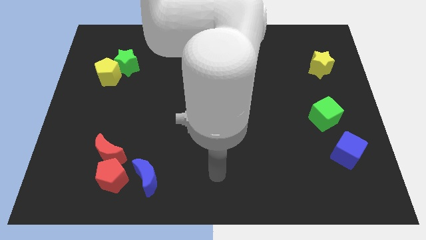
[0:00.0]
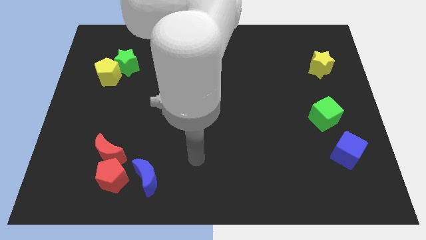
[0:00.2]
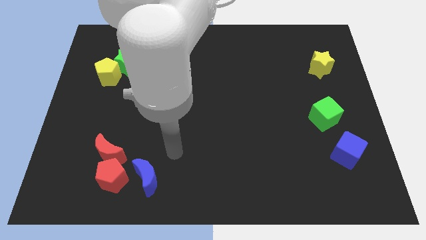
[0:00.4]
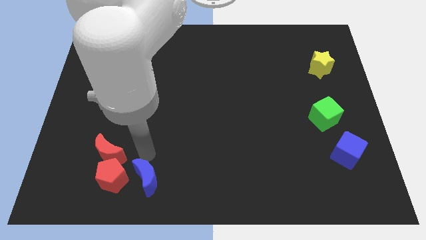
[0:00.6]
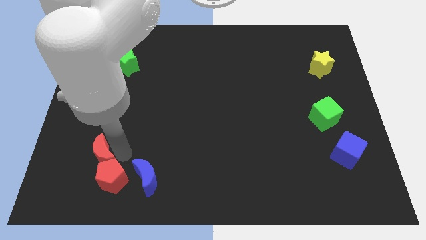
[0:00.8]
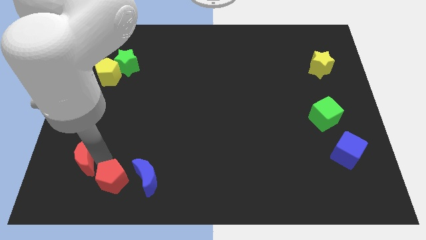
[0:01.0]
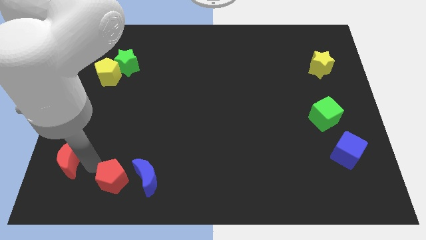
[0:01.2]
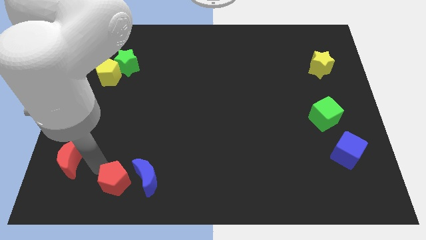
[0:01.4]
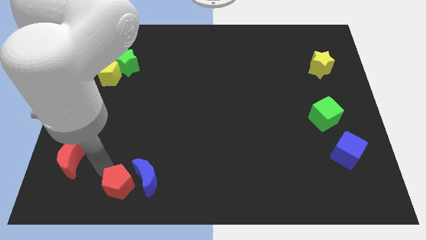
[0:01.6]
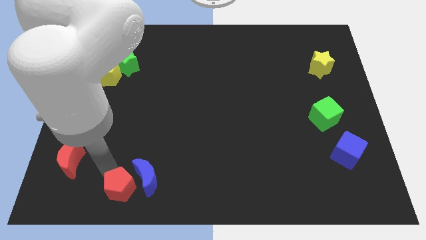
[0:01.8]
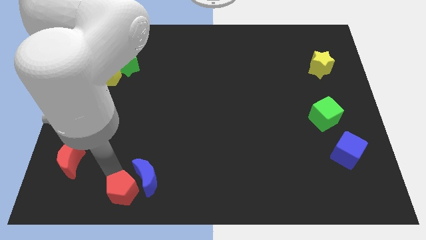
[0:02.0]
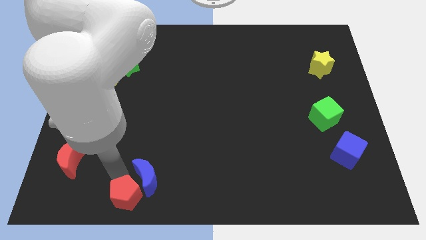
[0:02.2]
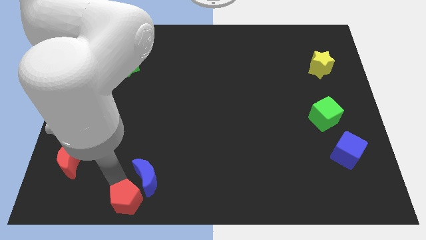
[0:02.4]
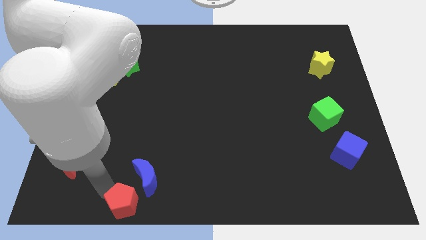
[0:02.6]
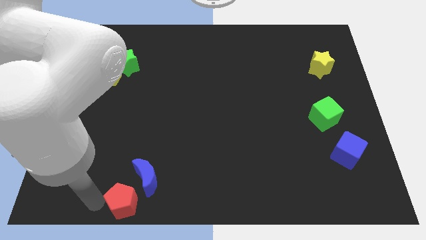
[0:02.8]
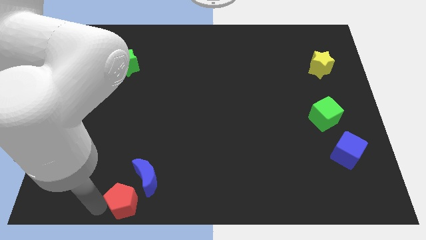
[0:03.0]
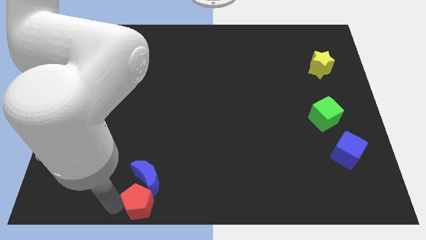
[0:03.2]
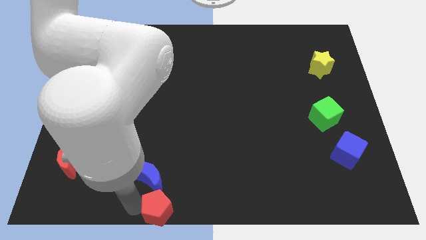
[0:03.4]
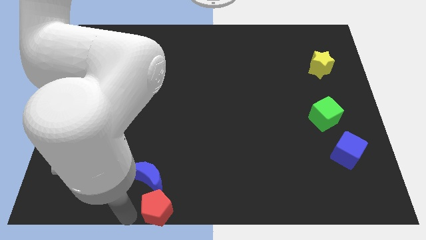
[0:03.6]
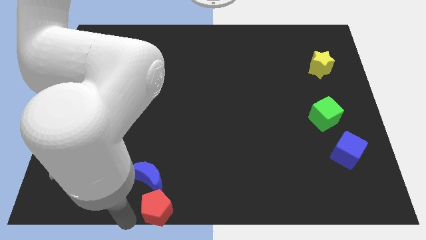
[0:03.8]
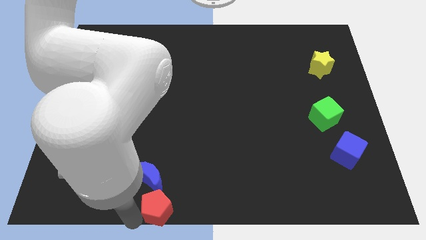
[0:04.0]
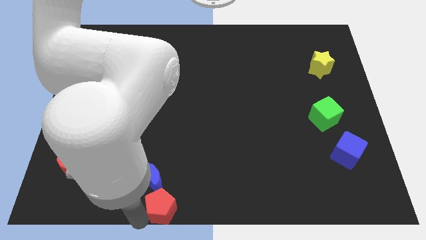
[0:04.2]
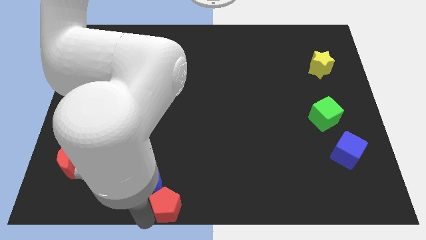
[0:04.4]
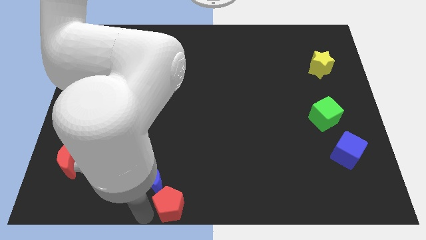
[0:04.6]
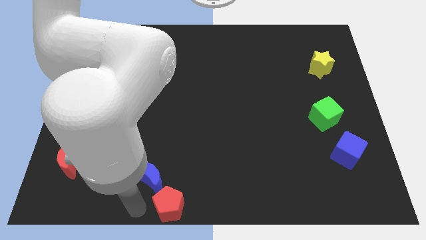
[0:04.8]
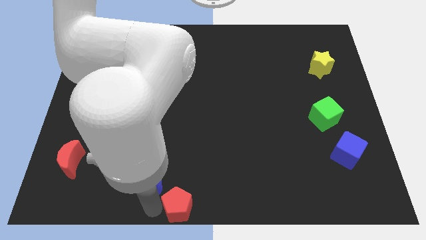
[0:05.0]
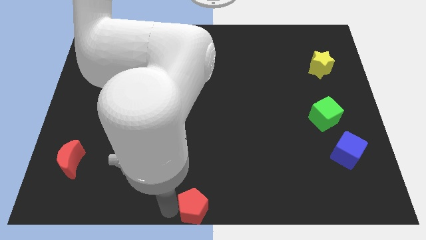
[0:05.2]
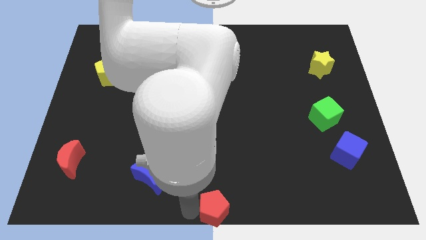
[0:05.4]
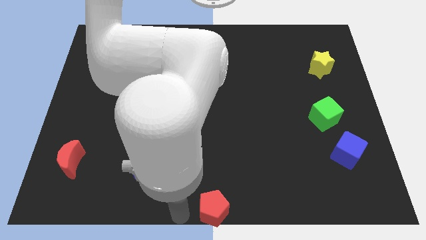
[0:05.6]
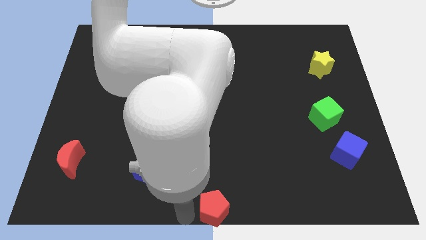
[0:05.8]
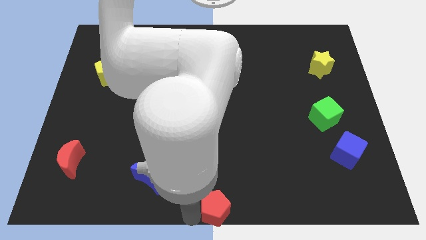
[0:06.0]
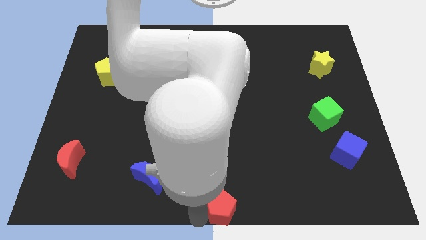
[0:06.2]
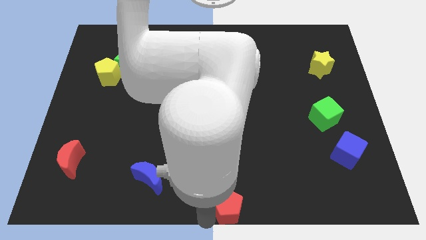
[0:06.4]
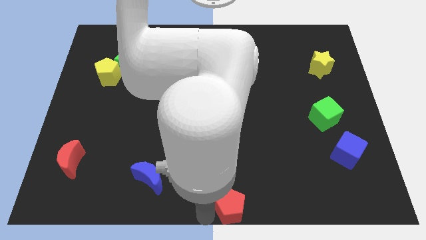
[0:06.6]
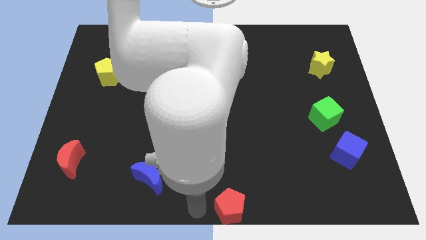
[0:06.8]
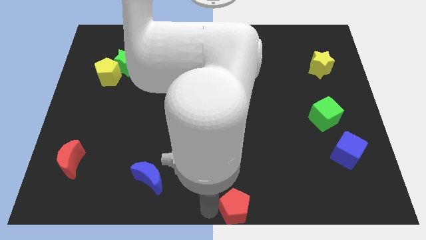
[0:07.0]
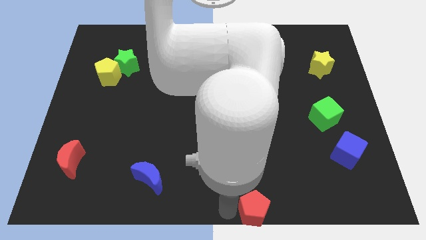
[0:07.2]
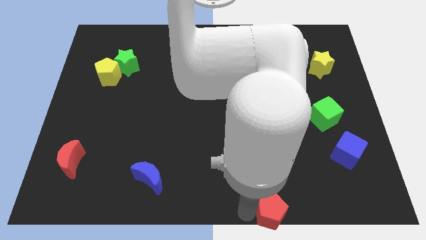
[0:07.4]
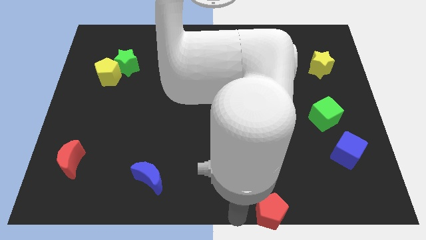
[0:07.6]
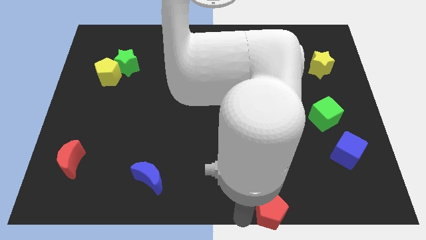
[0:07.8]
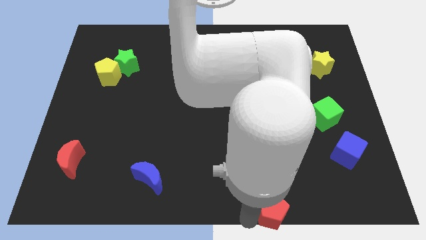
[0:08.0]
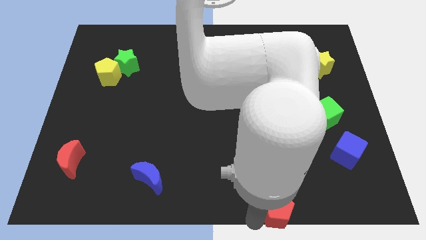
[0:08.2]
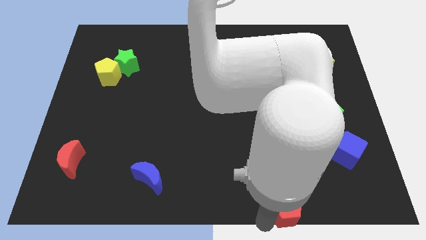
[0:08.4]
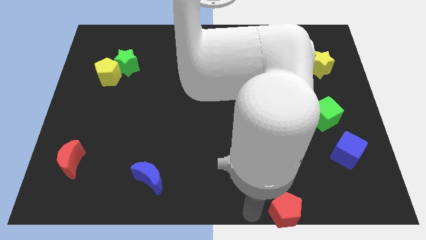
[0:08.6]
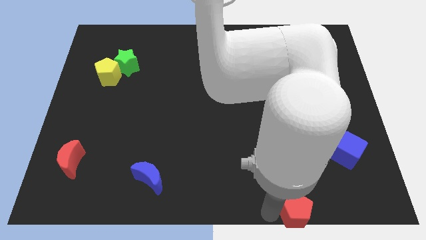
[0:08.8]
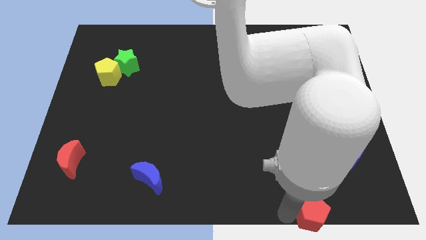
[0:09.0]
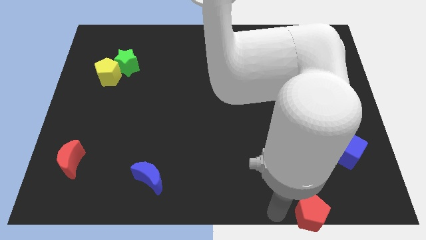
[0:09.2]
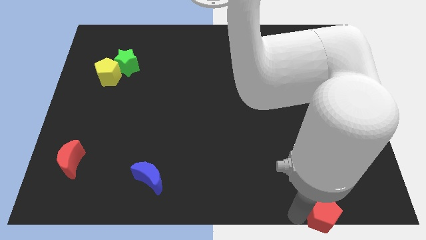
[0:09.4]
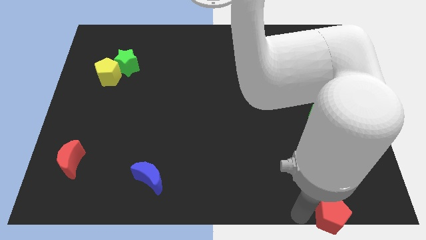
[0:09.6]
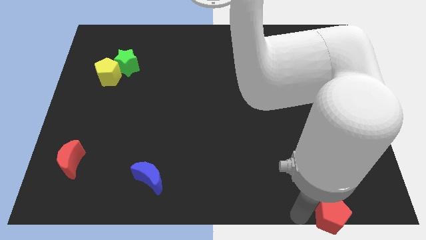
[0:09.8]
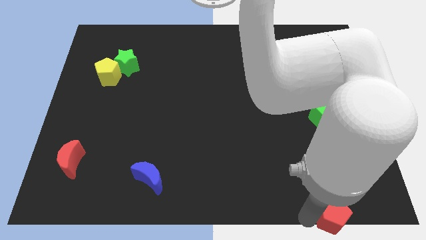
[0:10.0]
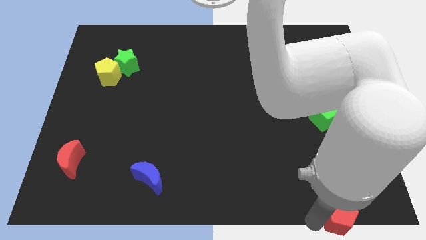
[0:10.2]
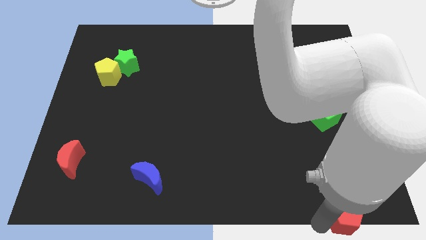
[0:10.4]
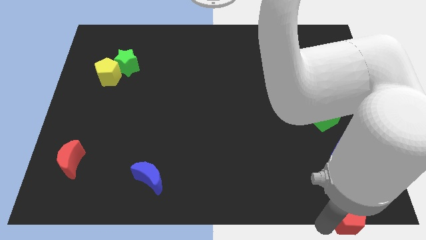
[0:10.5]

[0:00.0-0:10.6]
put the red pentagon to the lower right corner
